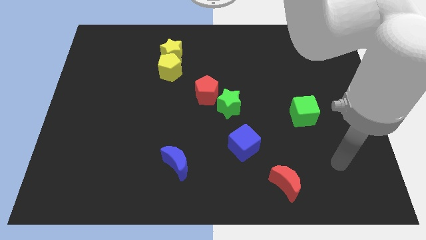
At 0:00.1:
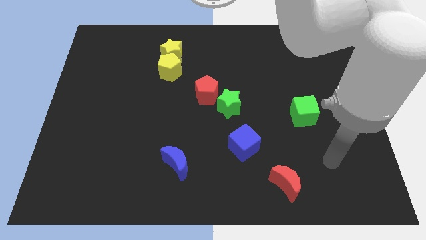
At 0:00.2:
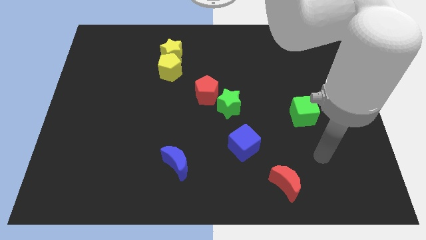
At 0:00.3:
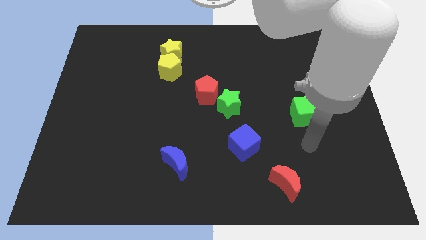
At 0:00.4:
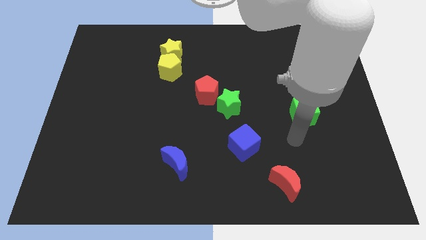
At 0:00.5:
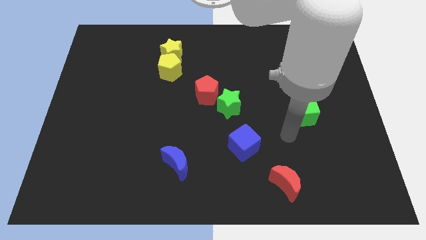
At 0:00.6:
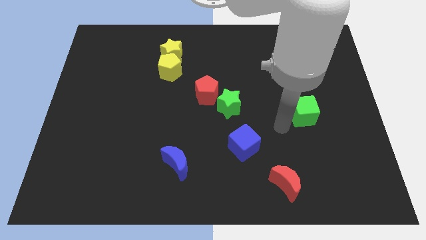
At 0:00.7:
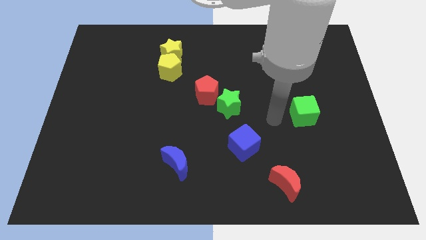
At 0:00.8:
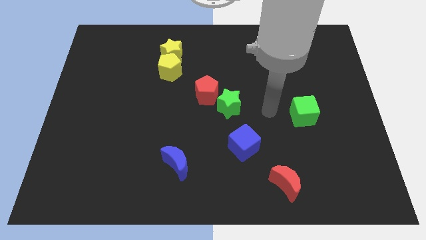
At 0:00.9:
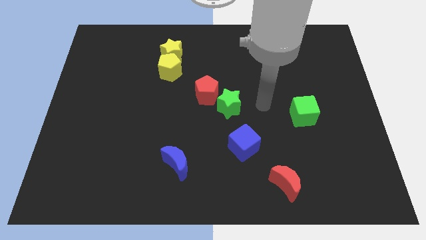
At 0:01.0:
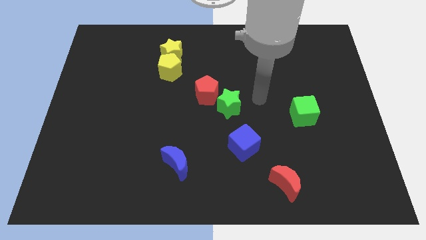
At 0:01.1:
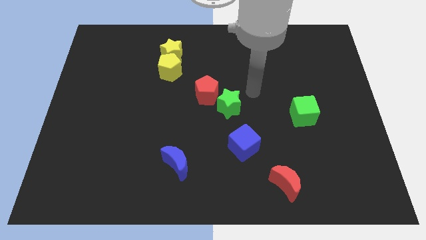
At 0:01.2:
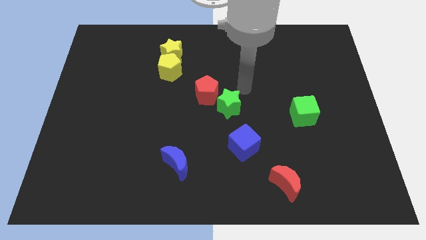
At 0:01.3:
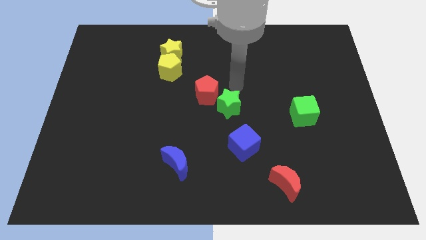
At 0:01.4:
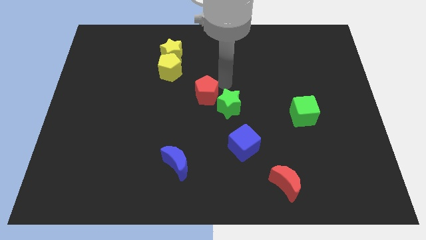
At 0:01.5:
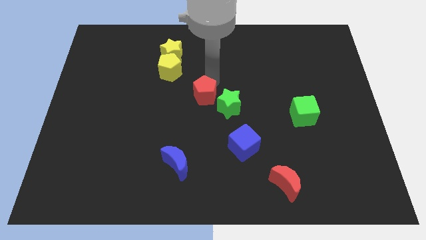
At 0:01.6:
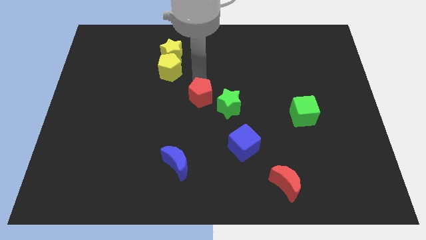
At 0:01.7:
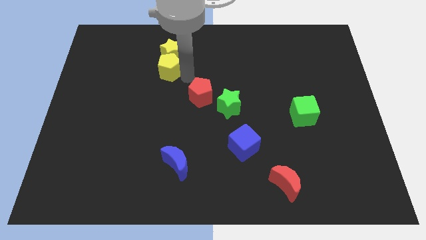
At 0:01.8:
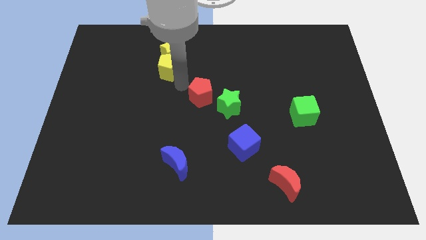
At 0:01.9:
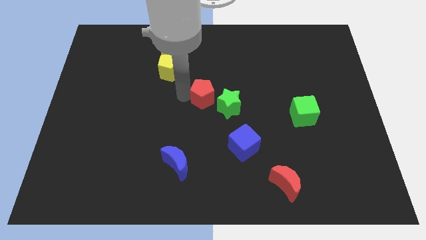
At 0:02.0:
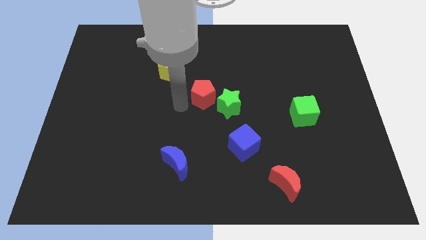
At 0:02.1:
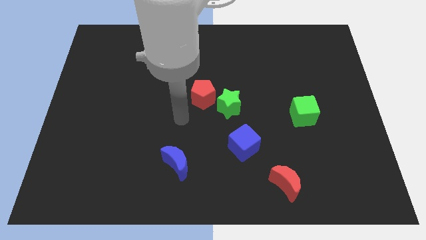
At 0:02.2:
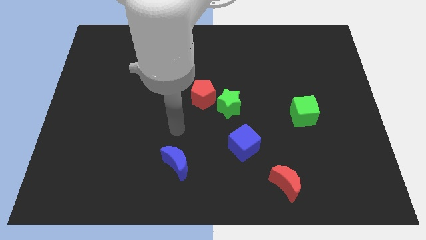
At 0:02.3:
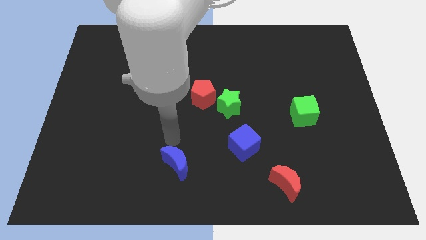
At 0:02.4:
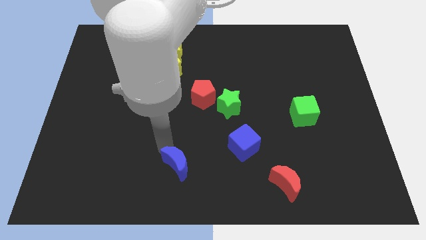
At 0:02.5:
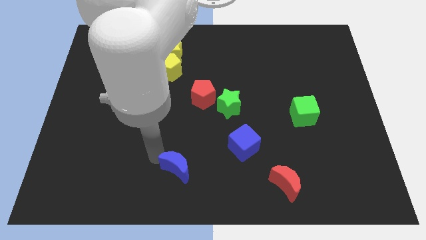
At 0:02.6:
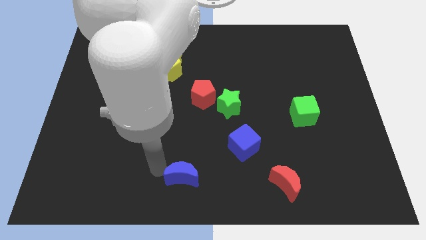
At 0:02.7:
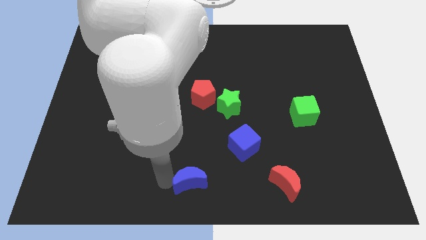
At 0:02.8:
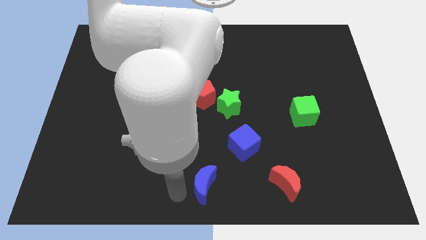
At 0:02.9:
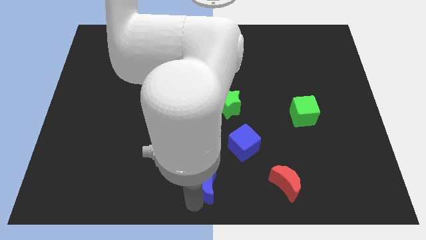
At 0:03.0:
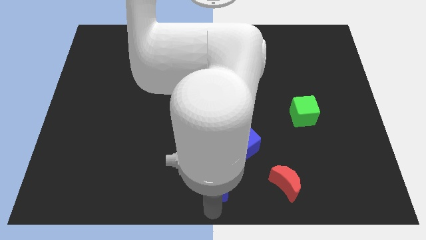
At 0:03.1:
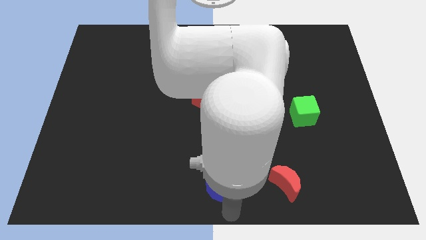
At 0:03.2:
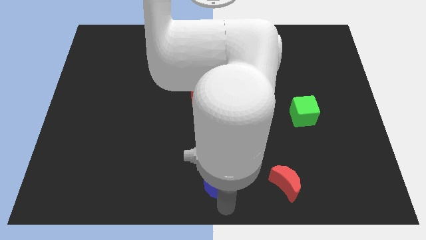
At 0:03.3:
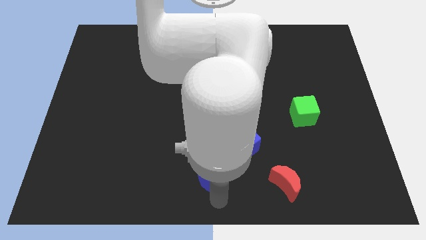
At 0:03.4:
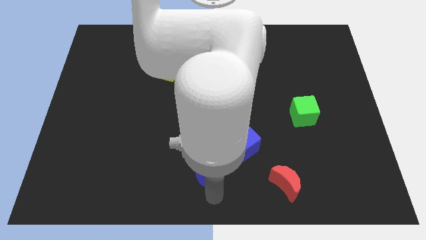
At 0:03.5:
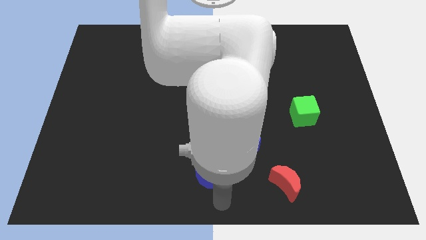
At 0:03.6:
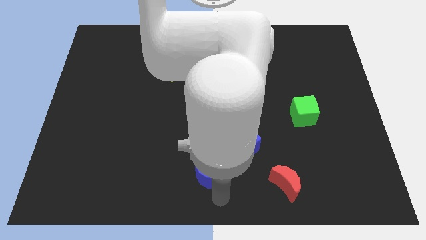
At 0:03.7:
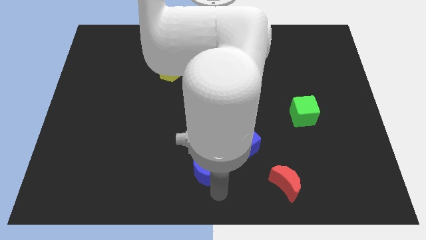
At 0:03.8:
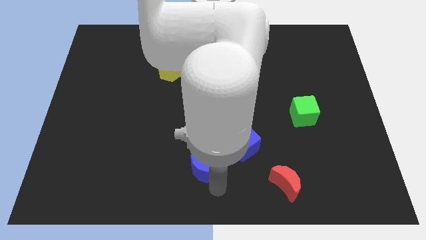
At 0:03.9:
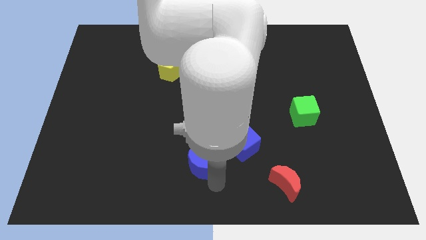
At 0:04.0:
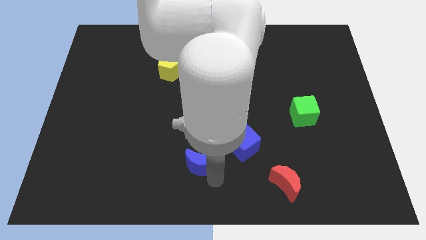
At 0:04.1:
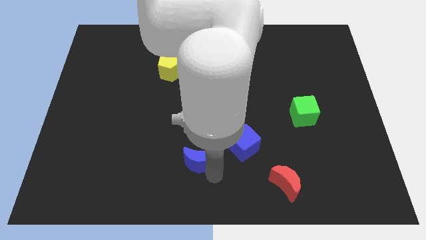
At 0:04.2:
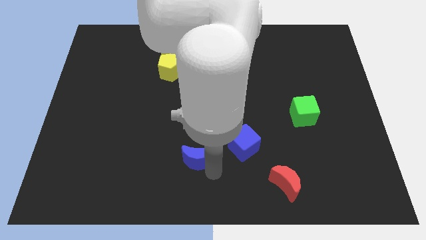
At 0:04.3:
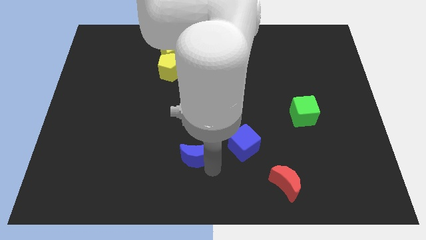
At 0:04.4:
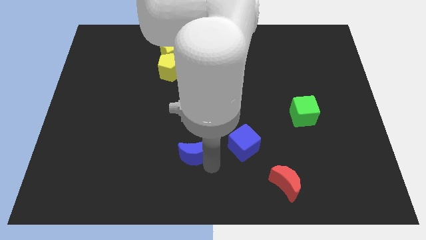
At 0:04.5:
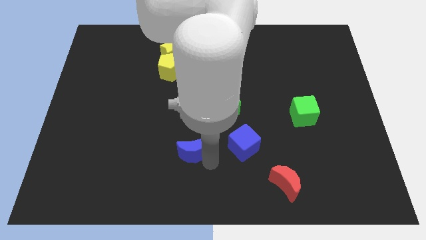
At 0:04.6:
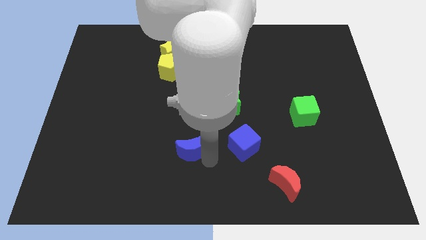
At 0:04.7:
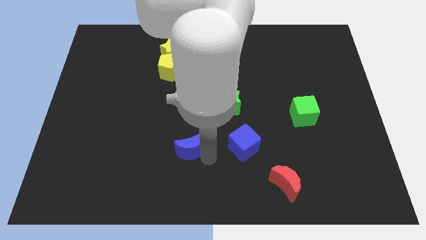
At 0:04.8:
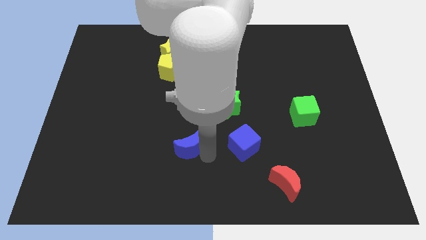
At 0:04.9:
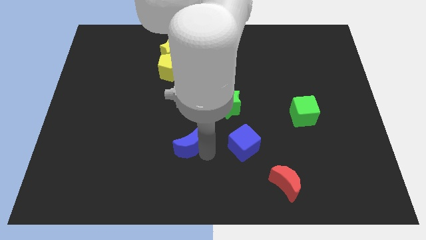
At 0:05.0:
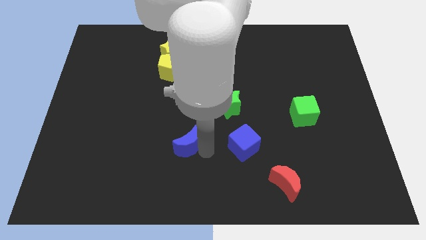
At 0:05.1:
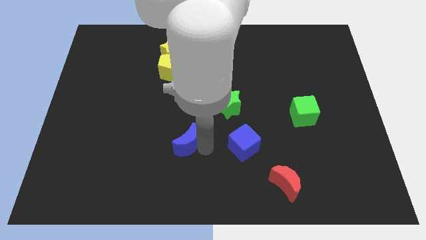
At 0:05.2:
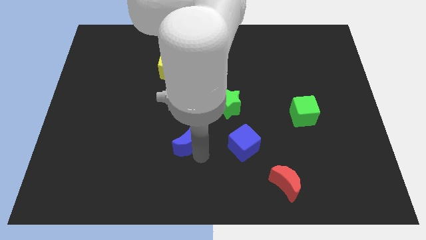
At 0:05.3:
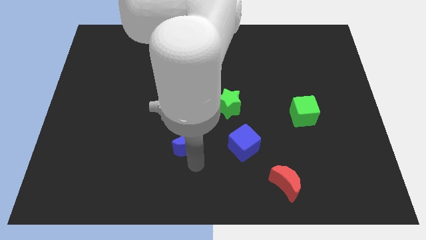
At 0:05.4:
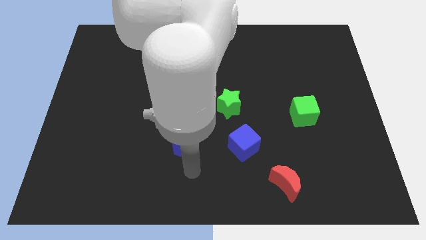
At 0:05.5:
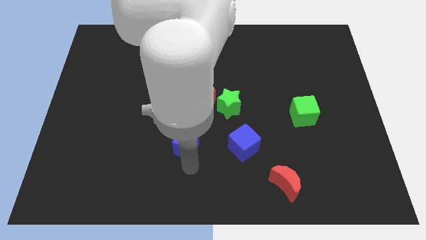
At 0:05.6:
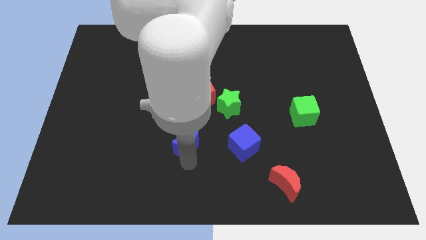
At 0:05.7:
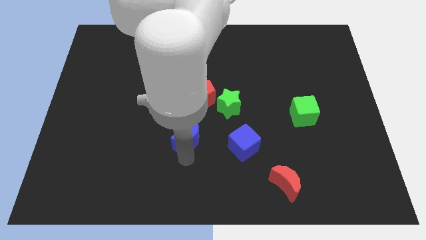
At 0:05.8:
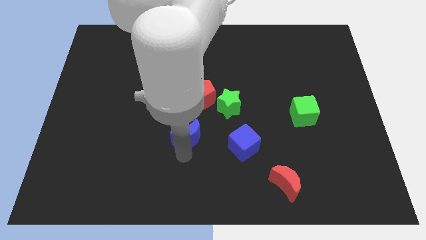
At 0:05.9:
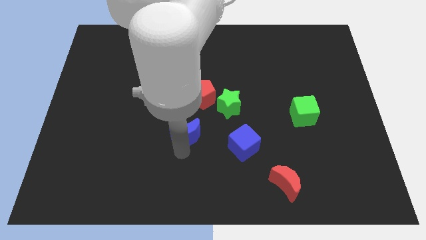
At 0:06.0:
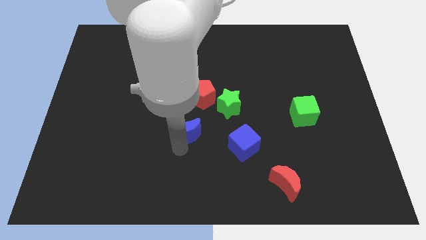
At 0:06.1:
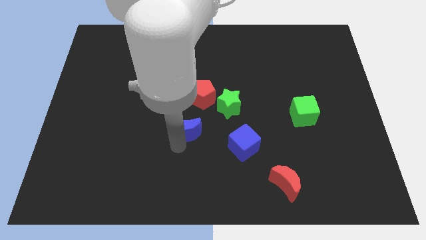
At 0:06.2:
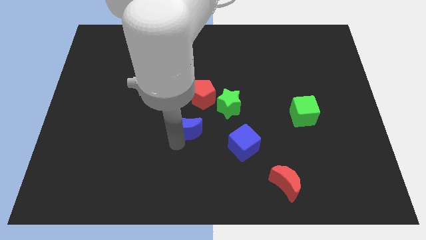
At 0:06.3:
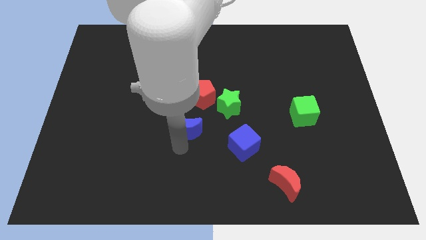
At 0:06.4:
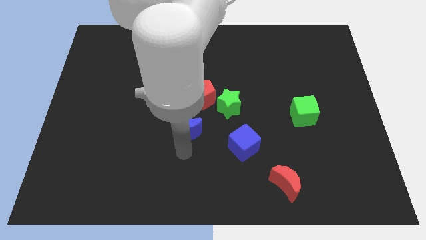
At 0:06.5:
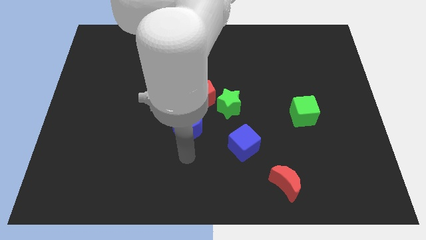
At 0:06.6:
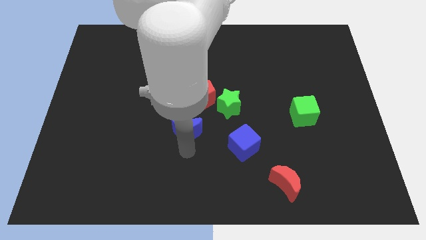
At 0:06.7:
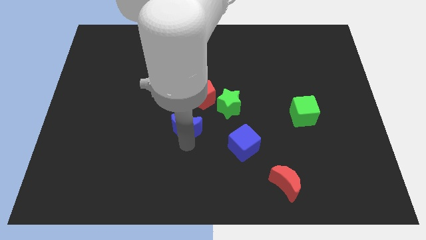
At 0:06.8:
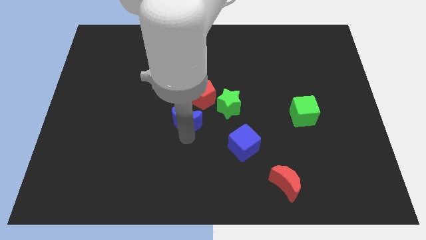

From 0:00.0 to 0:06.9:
push the blue moon left of the green star

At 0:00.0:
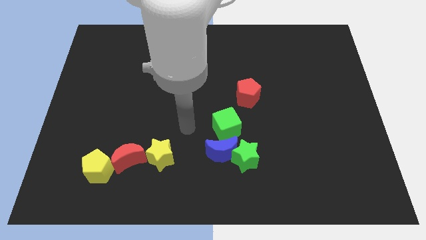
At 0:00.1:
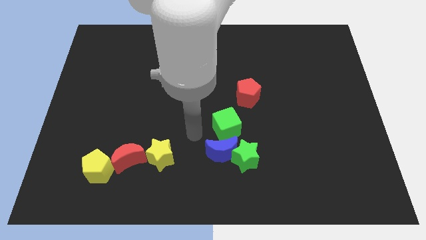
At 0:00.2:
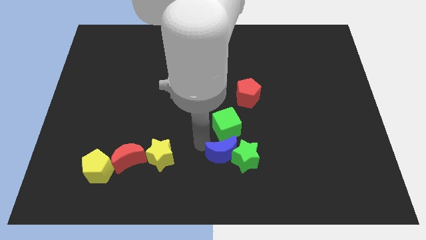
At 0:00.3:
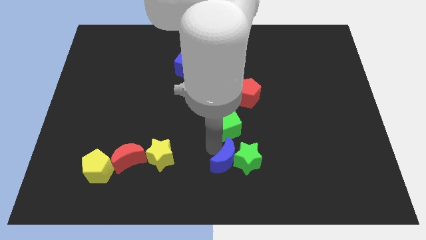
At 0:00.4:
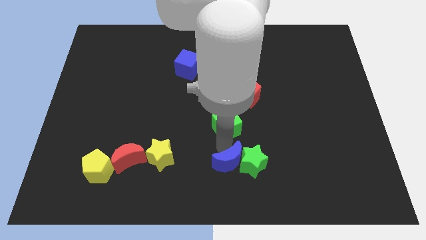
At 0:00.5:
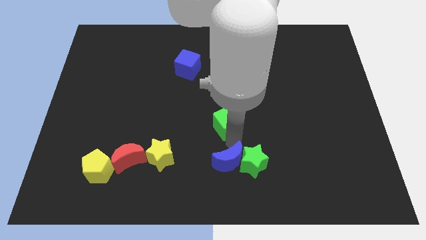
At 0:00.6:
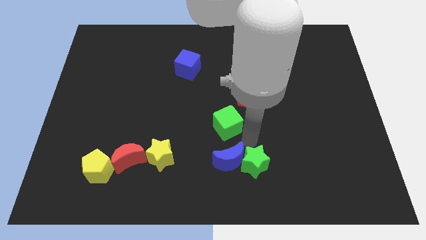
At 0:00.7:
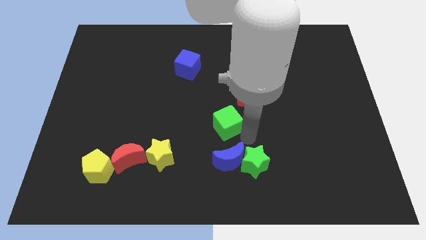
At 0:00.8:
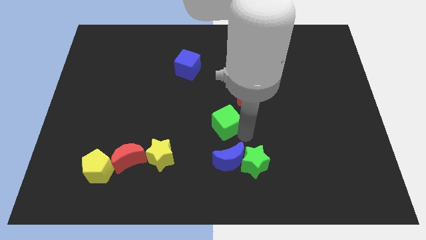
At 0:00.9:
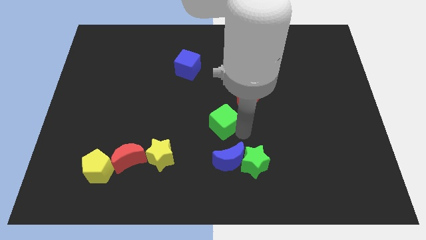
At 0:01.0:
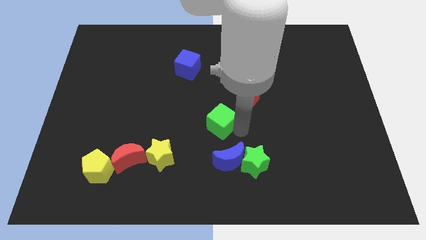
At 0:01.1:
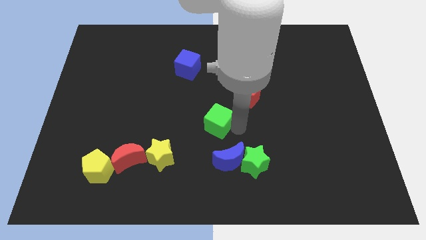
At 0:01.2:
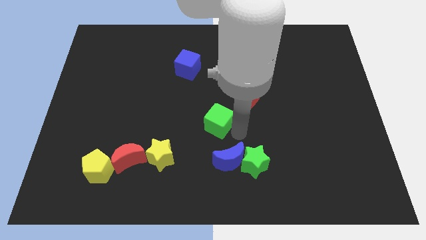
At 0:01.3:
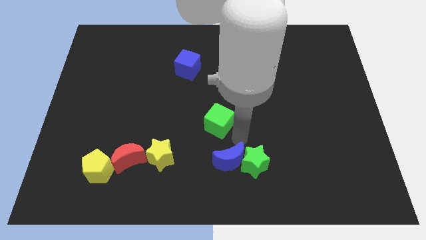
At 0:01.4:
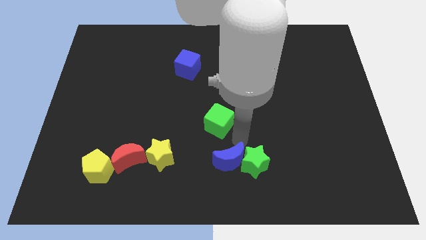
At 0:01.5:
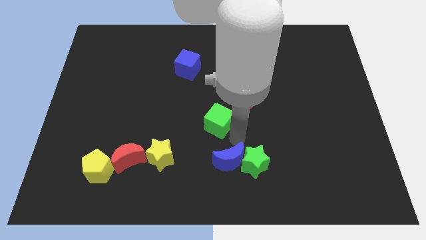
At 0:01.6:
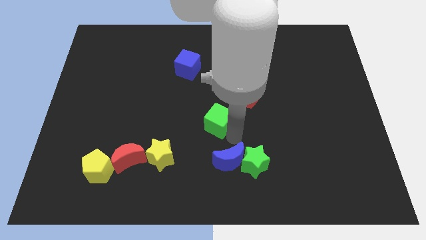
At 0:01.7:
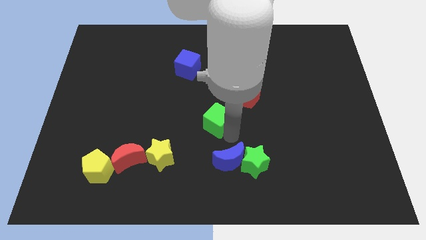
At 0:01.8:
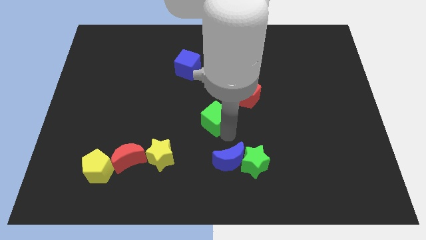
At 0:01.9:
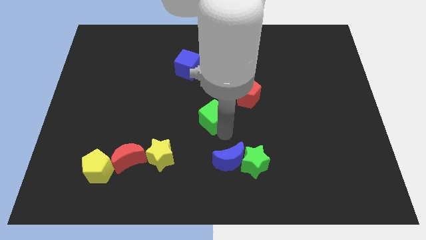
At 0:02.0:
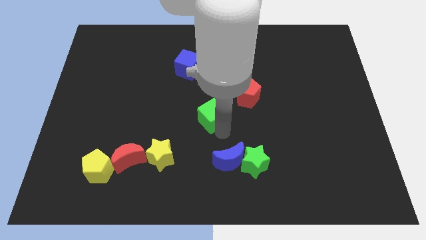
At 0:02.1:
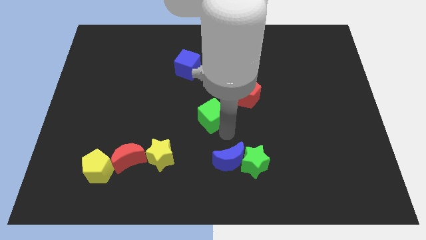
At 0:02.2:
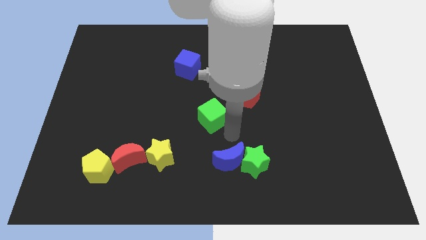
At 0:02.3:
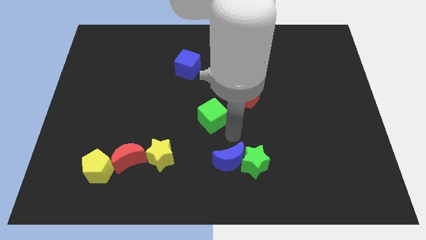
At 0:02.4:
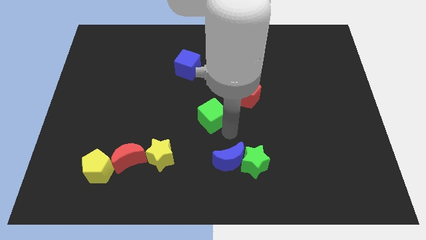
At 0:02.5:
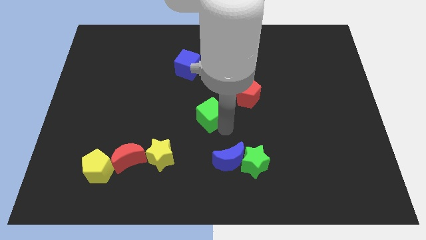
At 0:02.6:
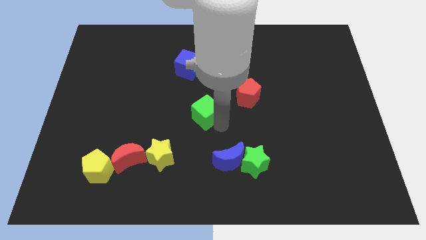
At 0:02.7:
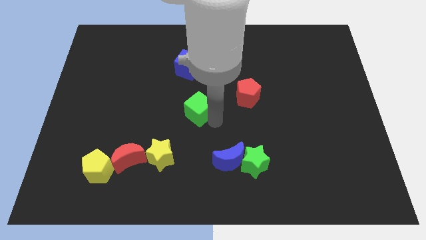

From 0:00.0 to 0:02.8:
slide the green cube to the bottom of the blue cube
